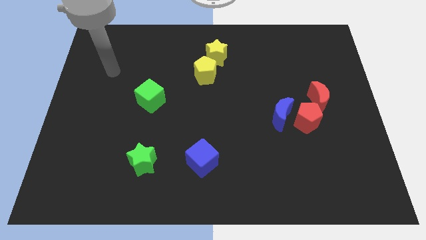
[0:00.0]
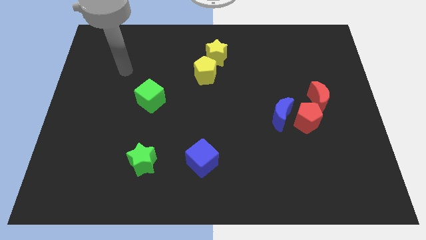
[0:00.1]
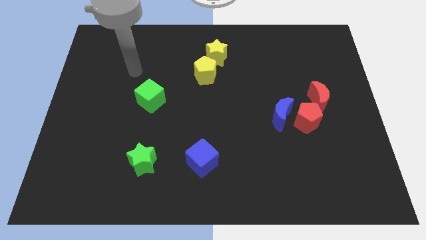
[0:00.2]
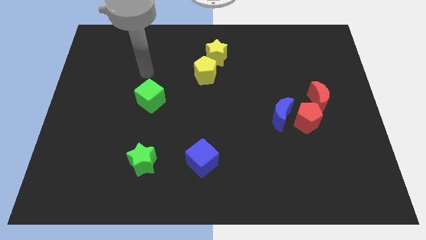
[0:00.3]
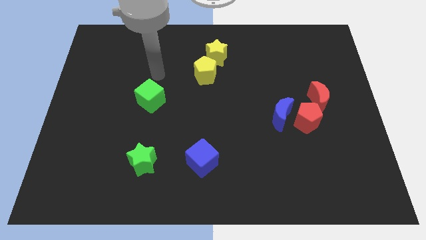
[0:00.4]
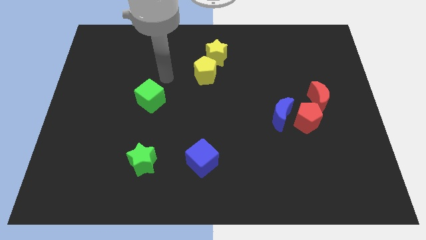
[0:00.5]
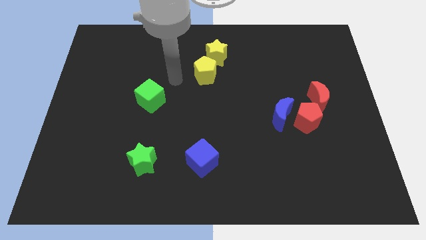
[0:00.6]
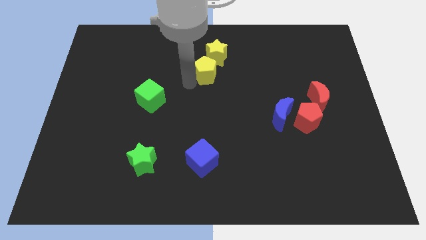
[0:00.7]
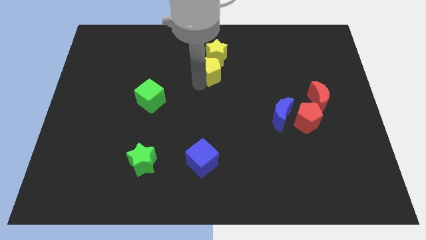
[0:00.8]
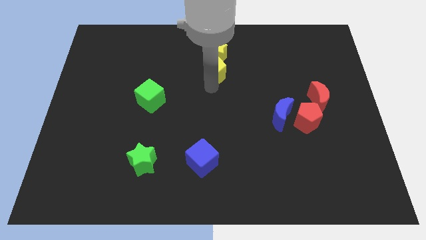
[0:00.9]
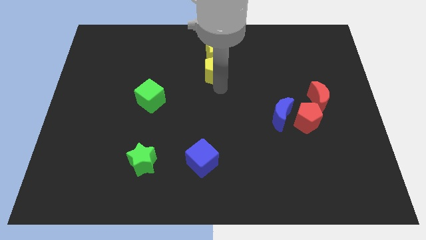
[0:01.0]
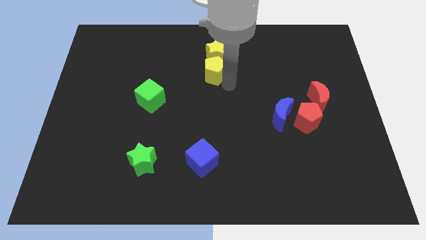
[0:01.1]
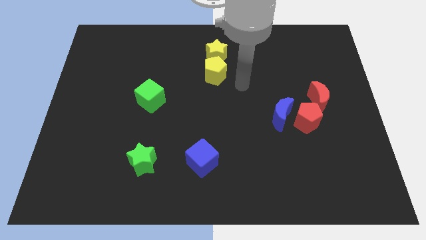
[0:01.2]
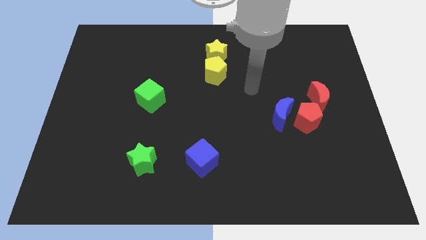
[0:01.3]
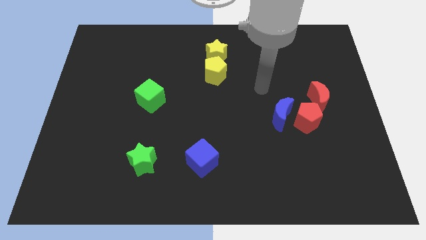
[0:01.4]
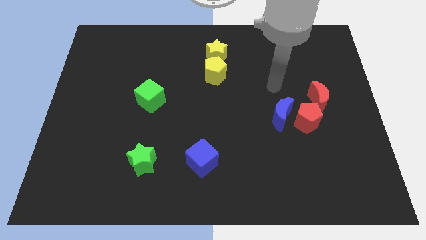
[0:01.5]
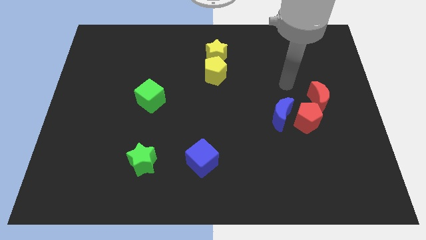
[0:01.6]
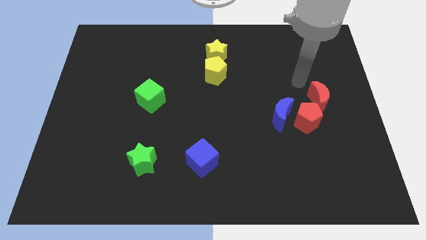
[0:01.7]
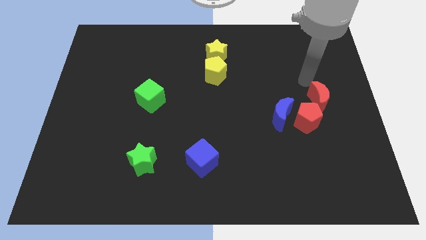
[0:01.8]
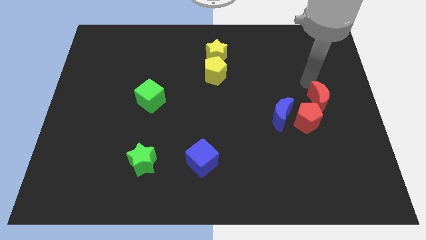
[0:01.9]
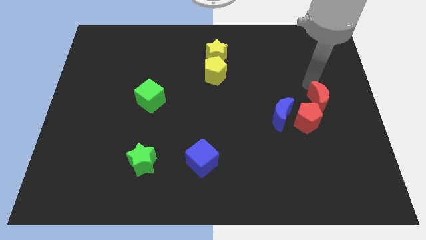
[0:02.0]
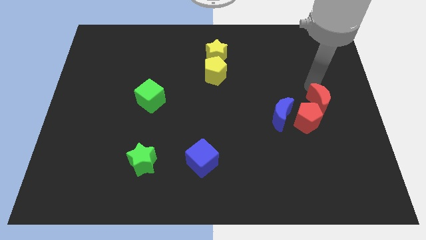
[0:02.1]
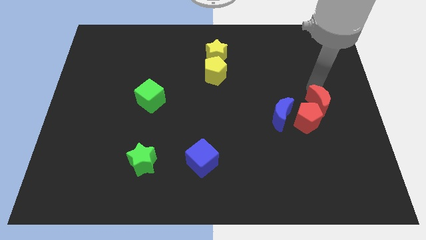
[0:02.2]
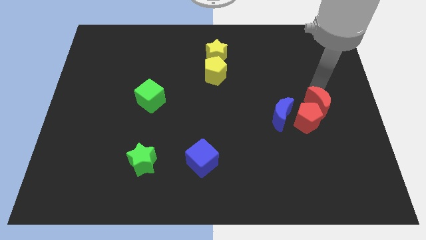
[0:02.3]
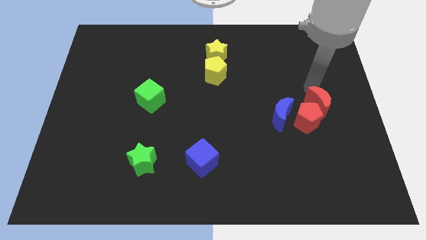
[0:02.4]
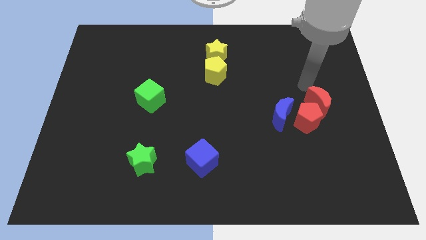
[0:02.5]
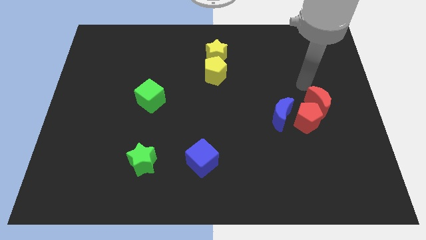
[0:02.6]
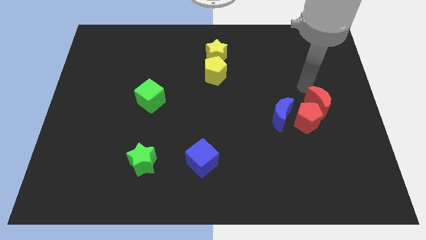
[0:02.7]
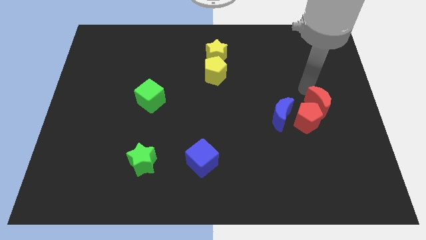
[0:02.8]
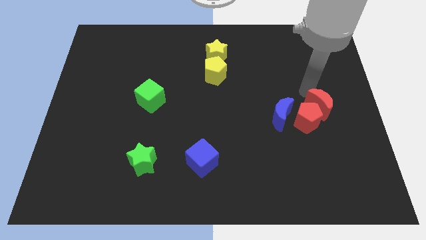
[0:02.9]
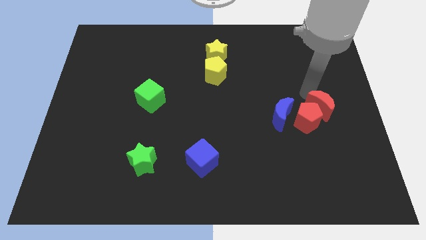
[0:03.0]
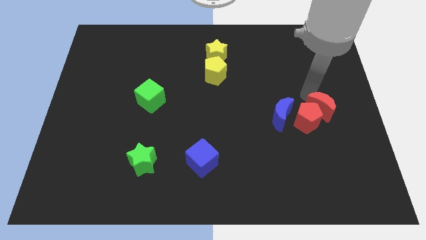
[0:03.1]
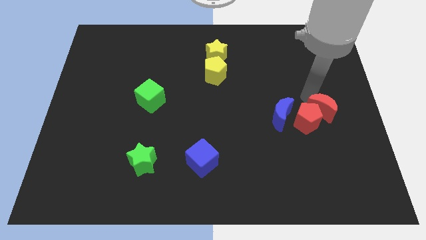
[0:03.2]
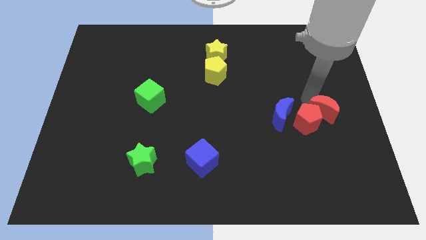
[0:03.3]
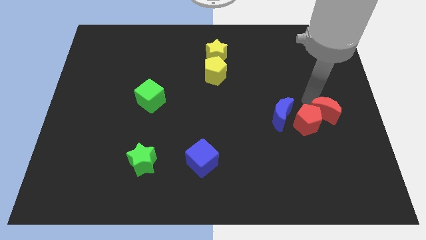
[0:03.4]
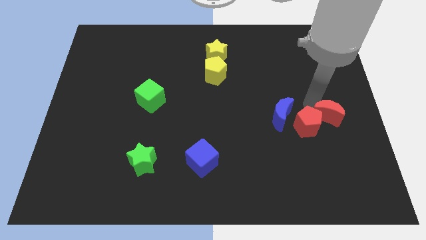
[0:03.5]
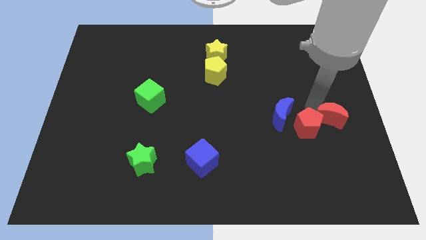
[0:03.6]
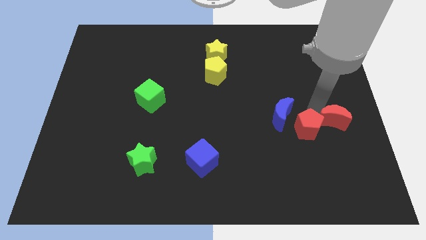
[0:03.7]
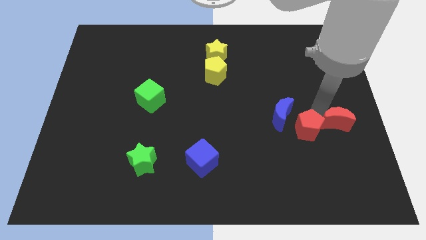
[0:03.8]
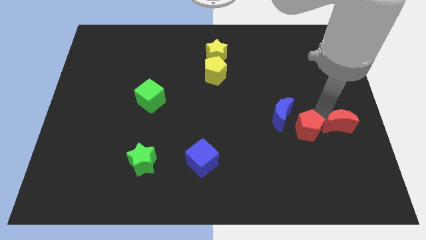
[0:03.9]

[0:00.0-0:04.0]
slide the red moon downwards a little bit

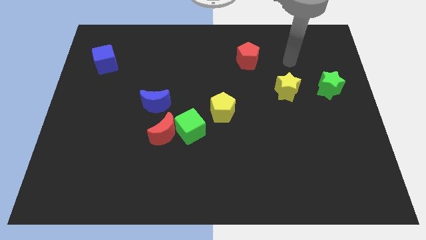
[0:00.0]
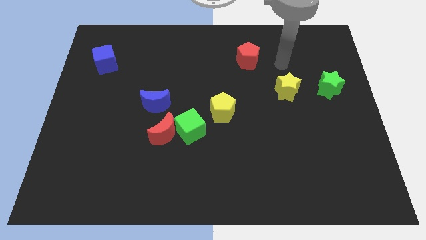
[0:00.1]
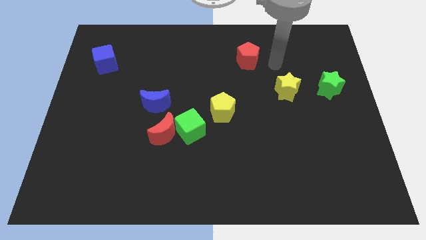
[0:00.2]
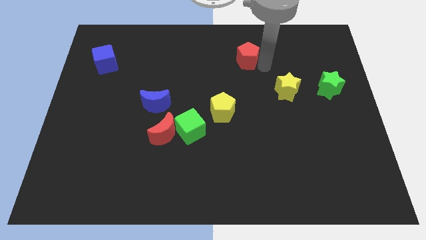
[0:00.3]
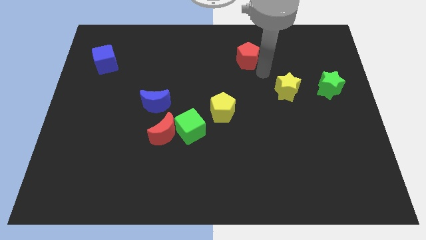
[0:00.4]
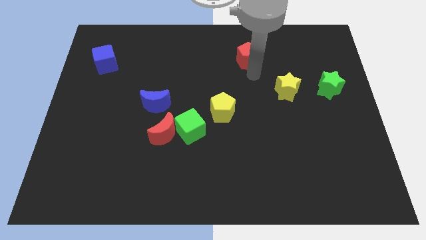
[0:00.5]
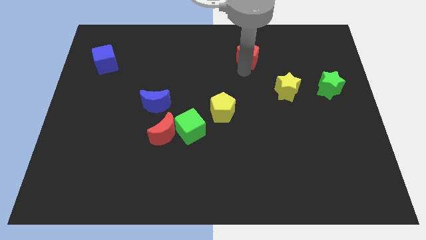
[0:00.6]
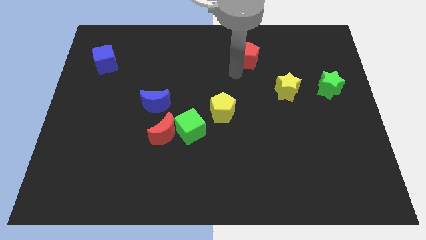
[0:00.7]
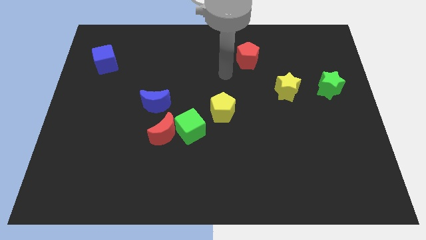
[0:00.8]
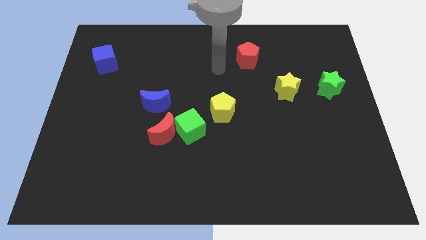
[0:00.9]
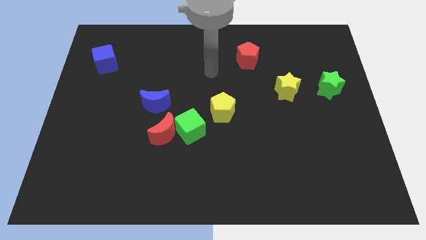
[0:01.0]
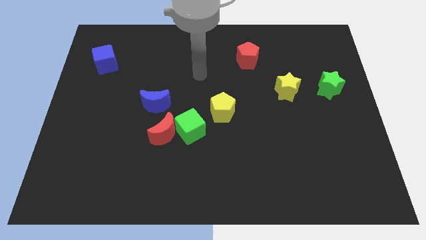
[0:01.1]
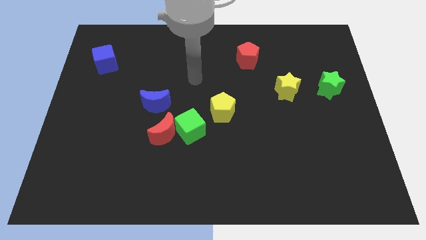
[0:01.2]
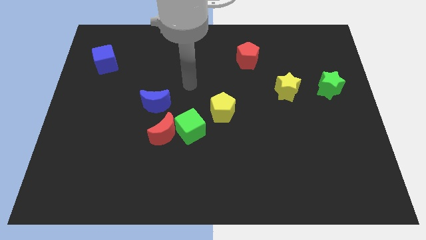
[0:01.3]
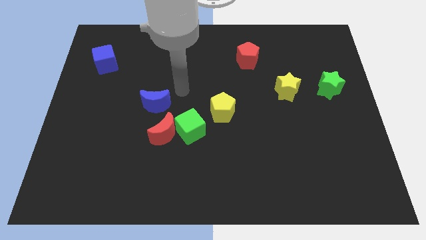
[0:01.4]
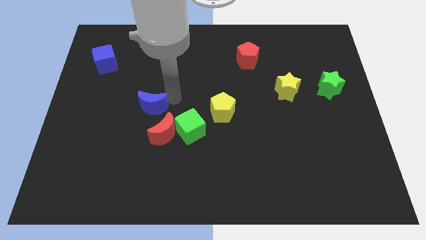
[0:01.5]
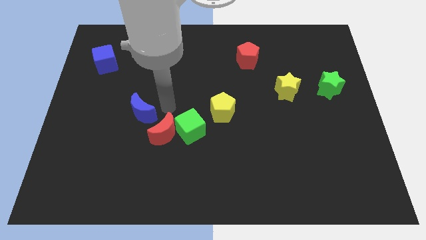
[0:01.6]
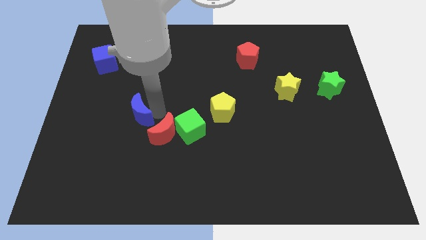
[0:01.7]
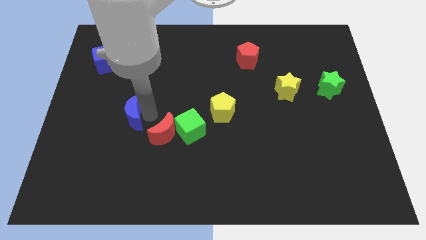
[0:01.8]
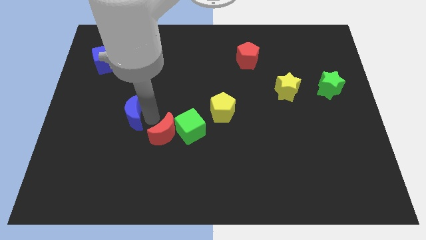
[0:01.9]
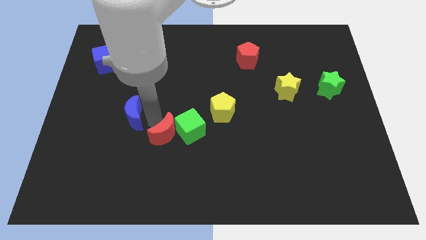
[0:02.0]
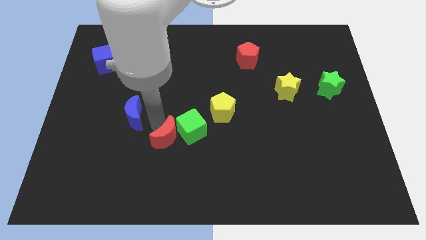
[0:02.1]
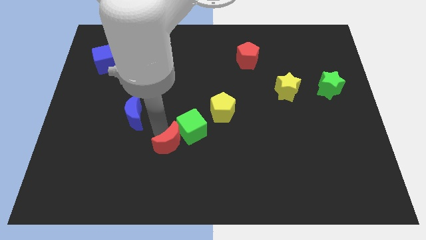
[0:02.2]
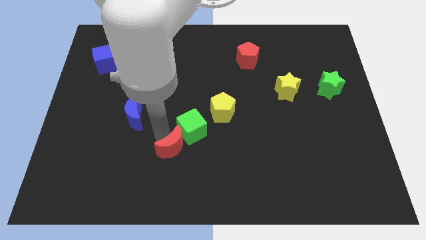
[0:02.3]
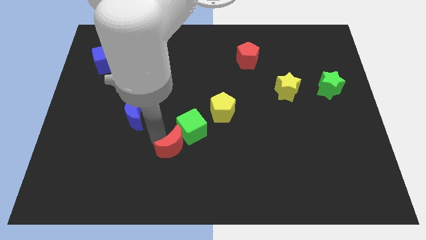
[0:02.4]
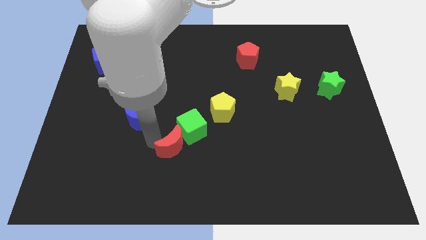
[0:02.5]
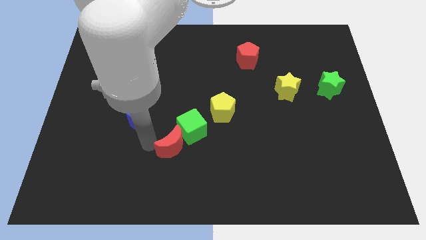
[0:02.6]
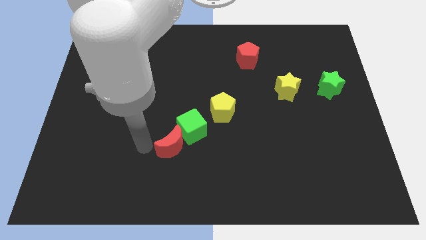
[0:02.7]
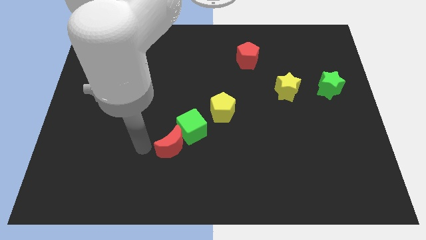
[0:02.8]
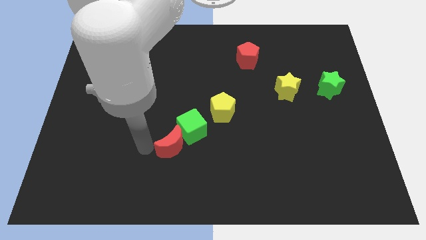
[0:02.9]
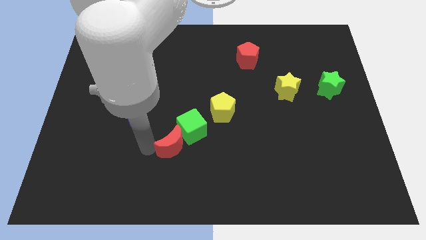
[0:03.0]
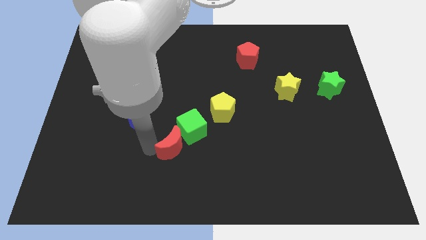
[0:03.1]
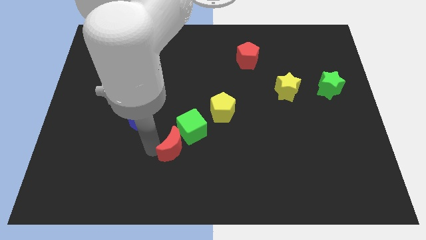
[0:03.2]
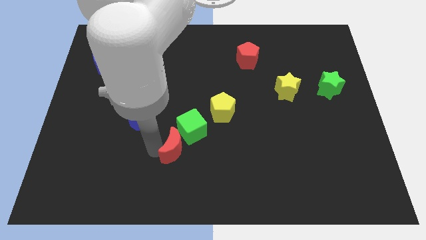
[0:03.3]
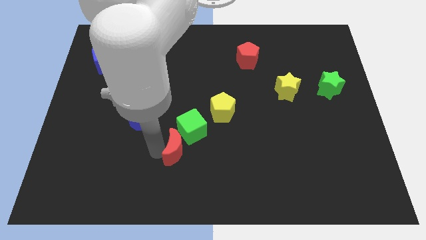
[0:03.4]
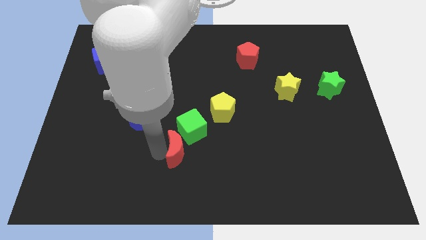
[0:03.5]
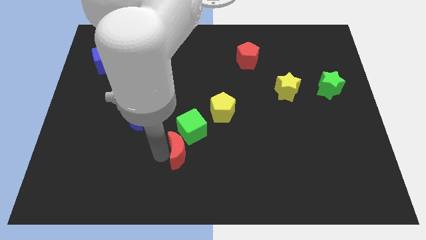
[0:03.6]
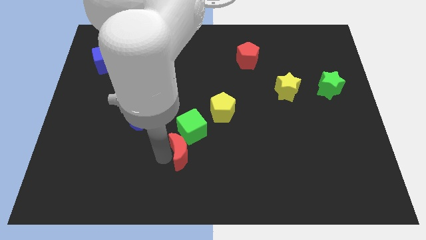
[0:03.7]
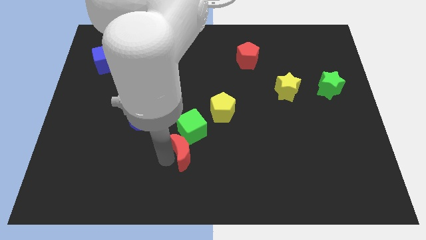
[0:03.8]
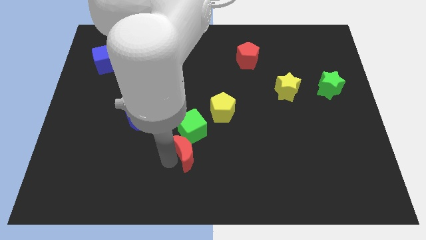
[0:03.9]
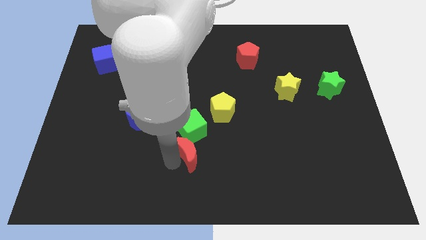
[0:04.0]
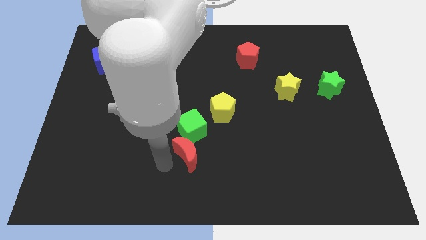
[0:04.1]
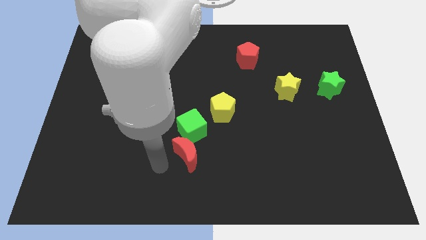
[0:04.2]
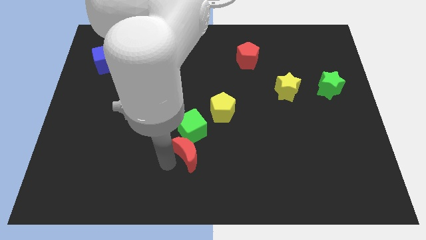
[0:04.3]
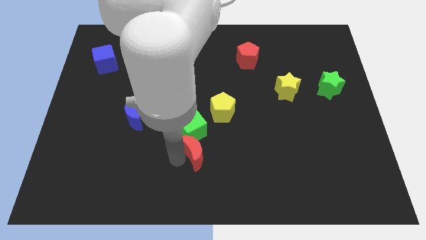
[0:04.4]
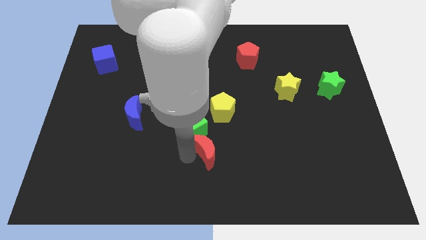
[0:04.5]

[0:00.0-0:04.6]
slightly move the red moon to the right
